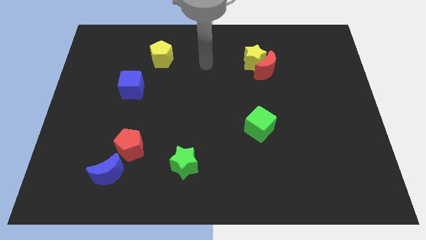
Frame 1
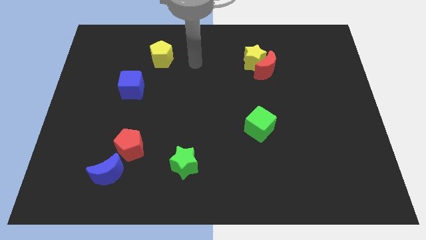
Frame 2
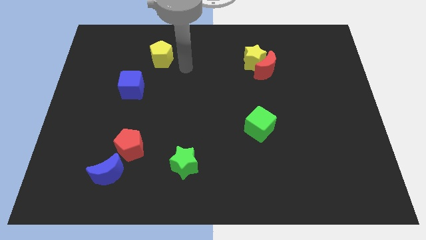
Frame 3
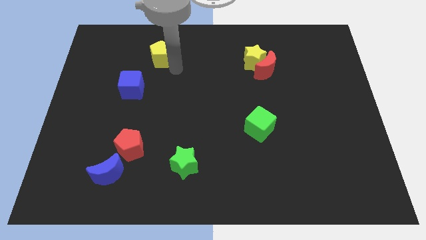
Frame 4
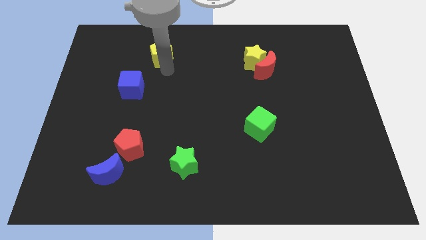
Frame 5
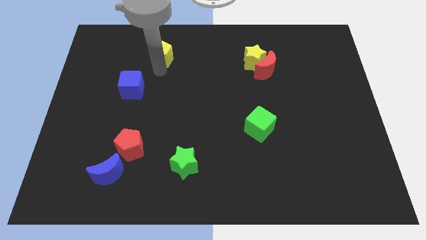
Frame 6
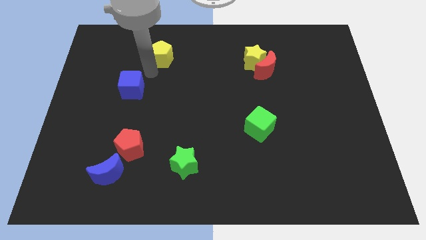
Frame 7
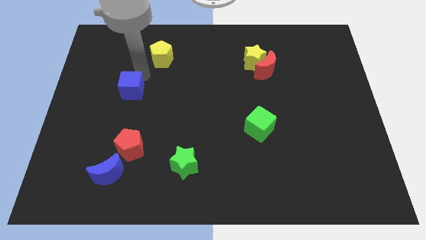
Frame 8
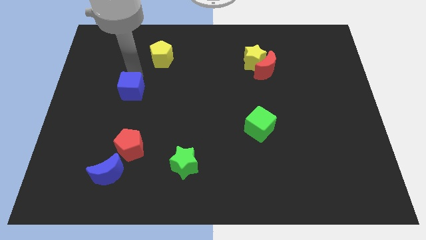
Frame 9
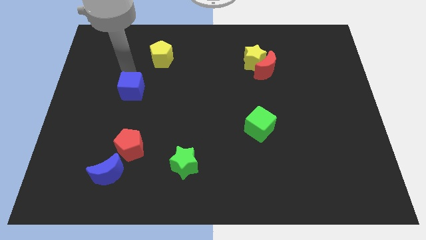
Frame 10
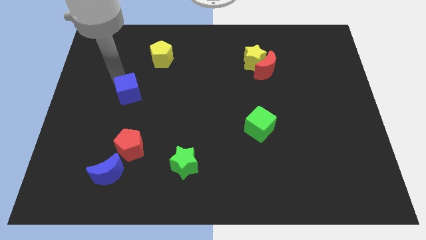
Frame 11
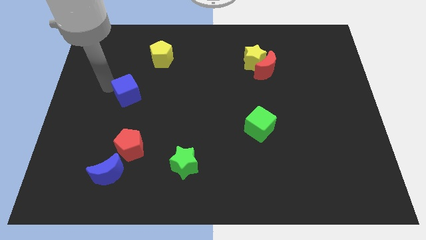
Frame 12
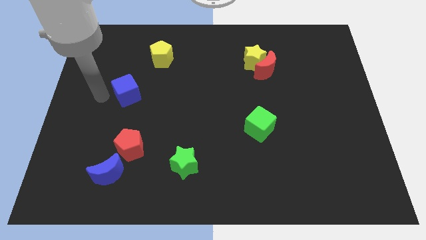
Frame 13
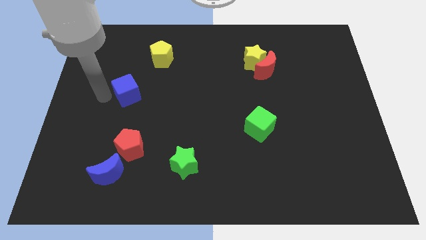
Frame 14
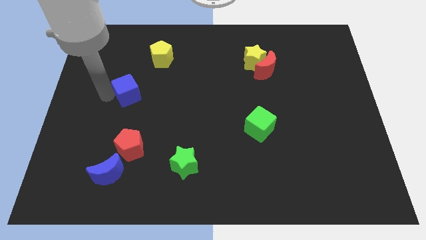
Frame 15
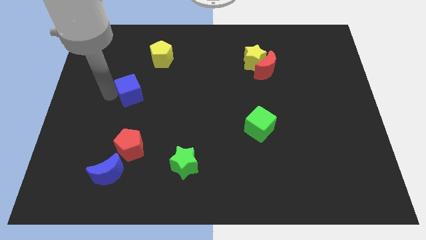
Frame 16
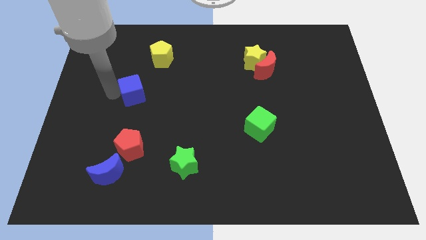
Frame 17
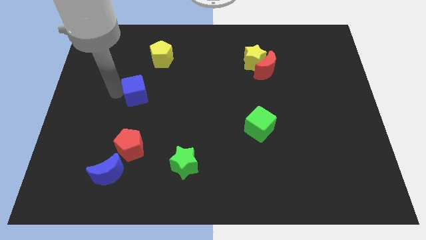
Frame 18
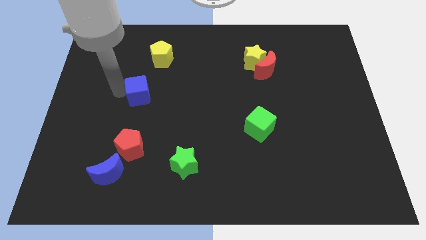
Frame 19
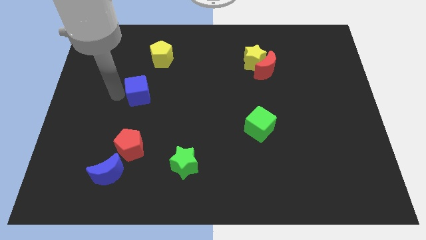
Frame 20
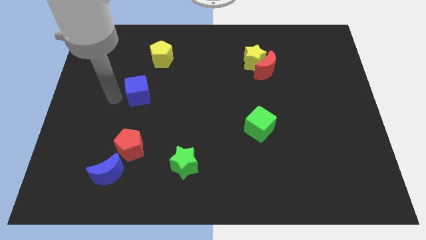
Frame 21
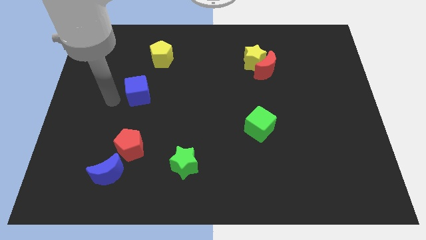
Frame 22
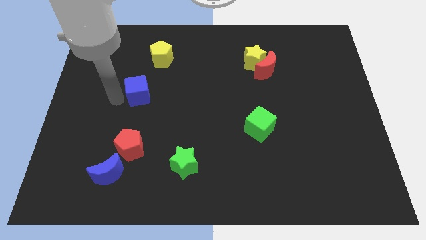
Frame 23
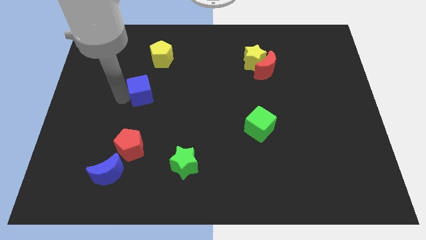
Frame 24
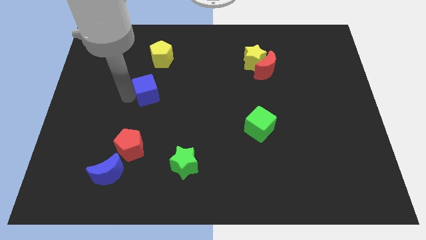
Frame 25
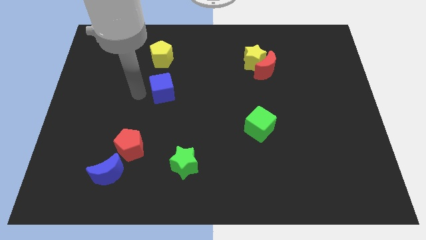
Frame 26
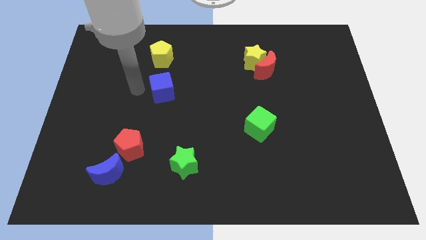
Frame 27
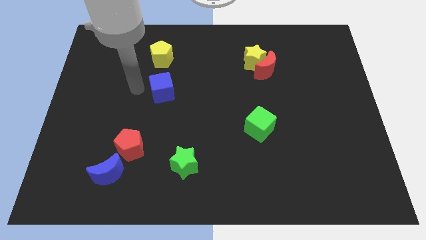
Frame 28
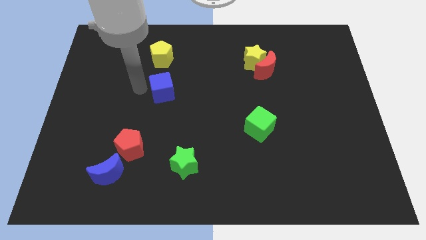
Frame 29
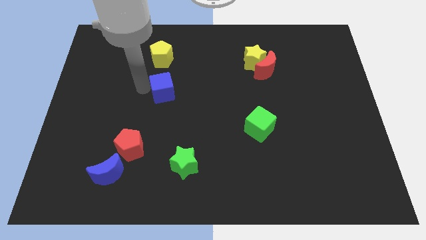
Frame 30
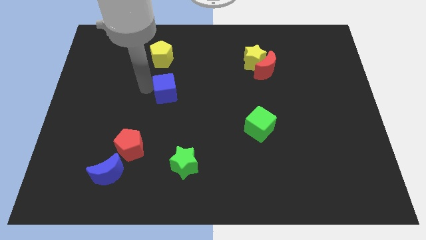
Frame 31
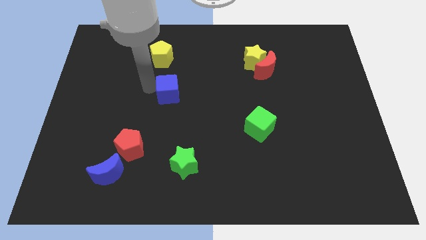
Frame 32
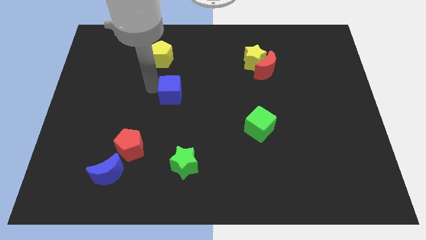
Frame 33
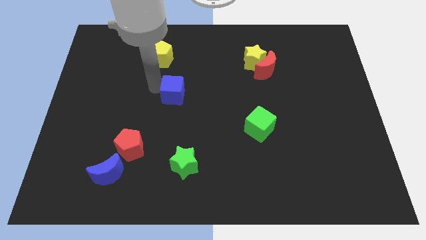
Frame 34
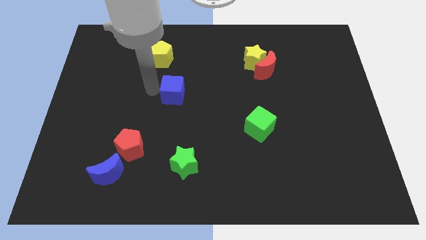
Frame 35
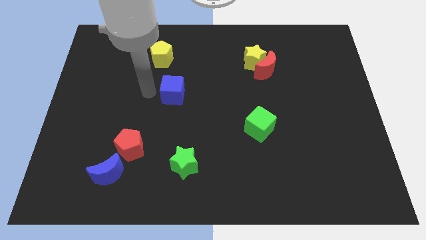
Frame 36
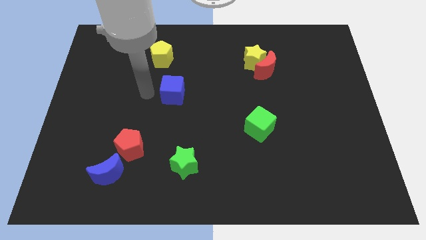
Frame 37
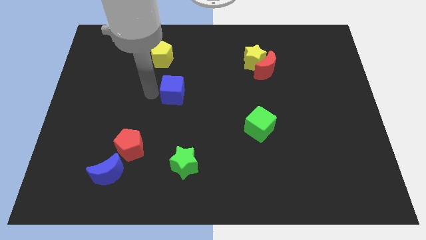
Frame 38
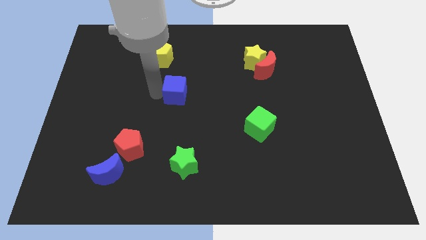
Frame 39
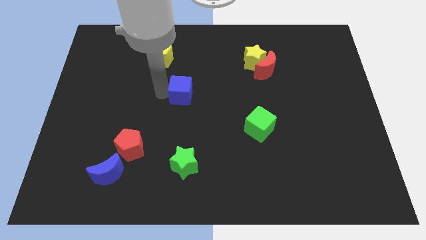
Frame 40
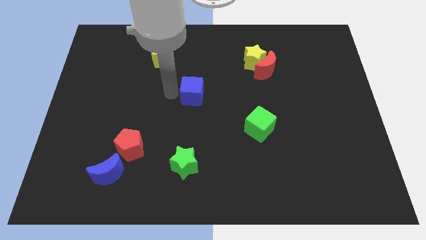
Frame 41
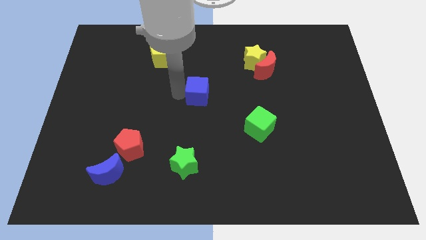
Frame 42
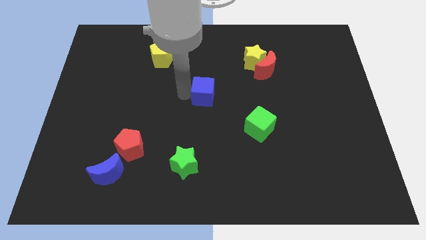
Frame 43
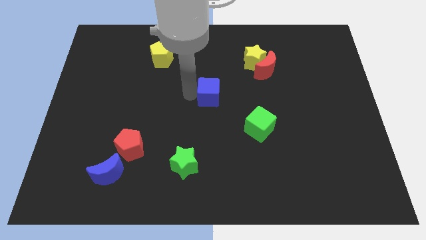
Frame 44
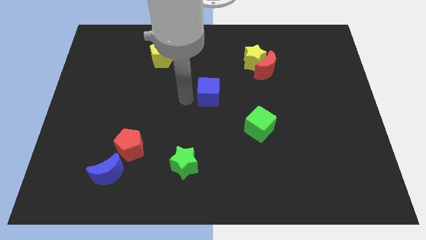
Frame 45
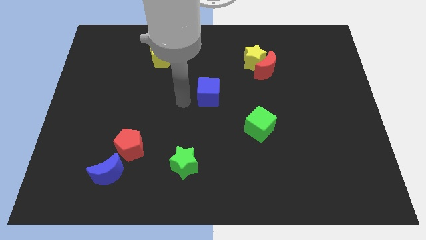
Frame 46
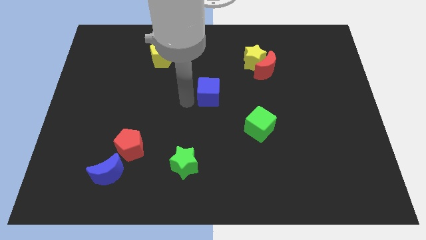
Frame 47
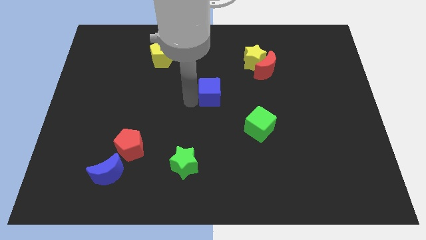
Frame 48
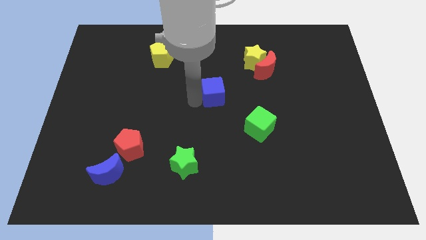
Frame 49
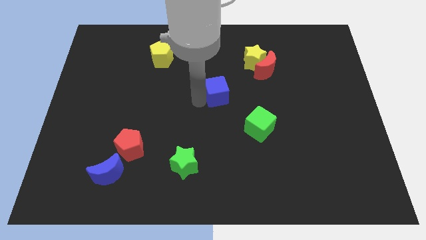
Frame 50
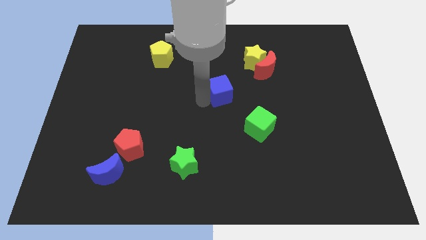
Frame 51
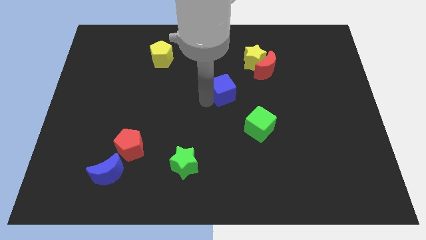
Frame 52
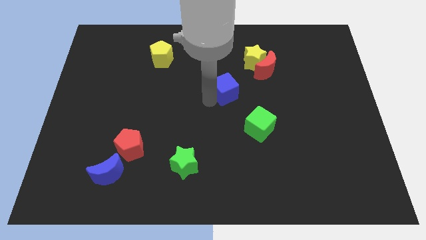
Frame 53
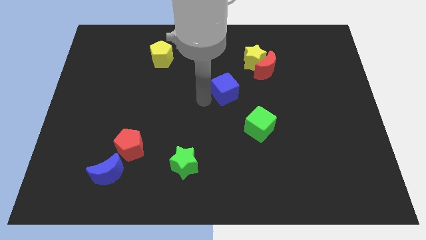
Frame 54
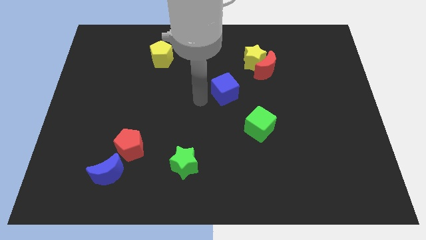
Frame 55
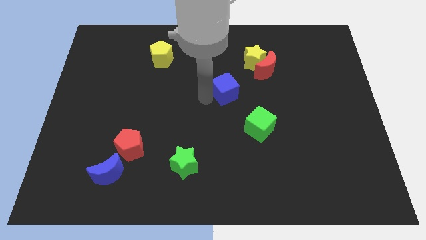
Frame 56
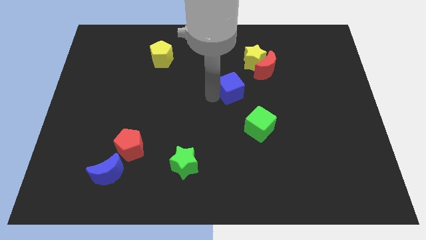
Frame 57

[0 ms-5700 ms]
slide the blue cube diagonally down and to the left of the red moon
